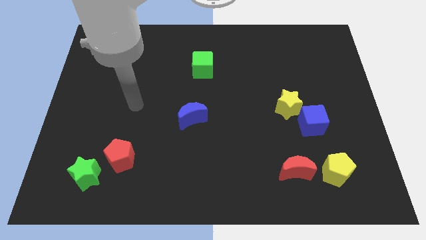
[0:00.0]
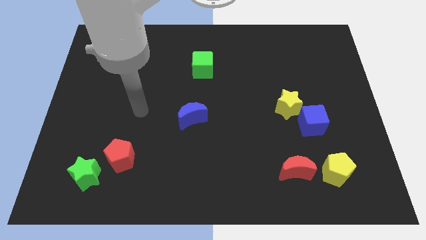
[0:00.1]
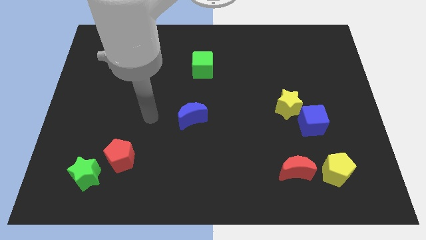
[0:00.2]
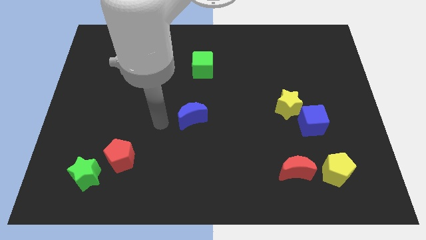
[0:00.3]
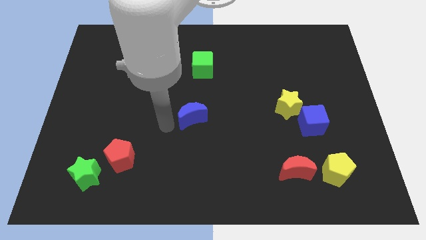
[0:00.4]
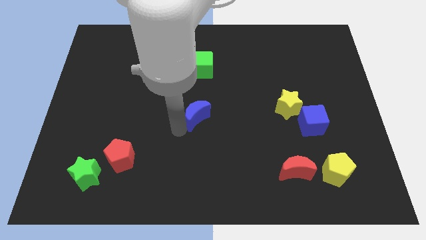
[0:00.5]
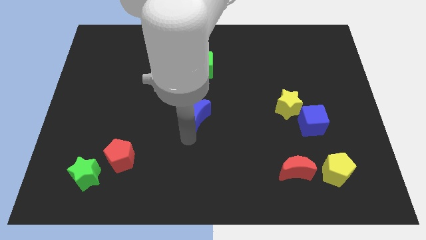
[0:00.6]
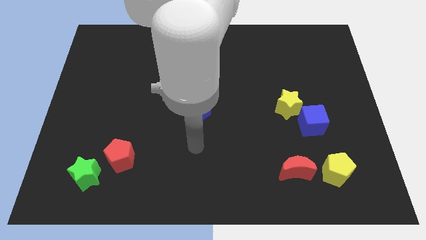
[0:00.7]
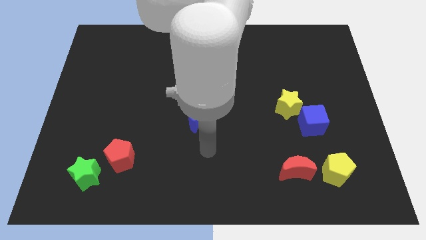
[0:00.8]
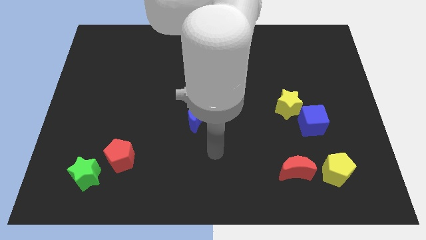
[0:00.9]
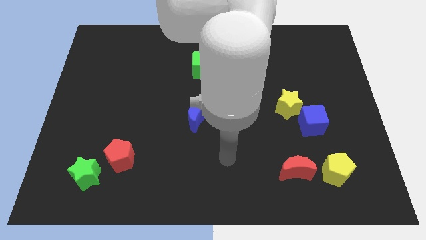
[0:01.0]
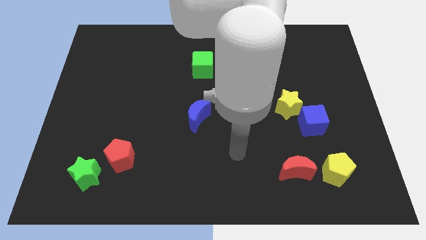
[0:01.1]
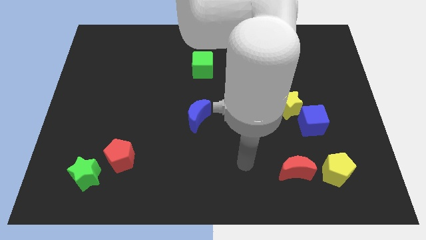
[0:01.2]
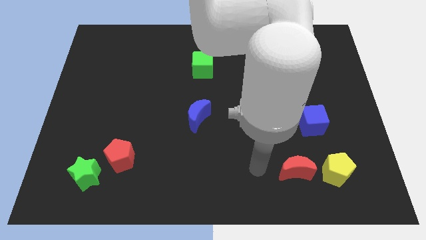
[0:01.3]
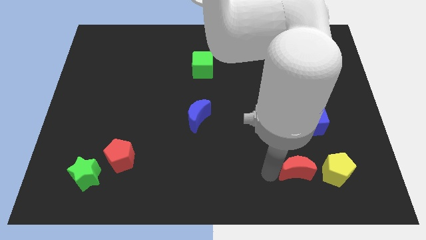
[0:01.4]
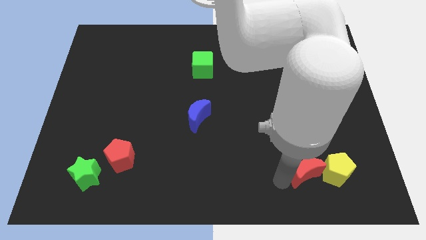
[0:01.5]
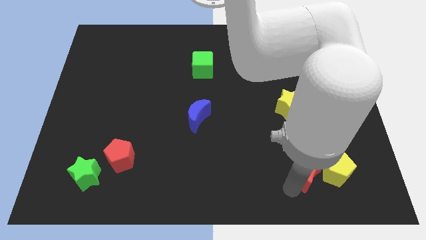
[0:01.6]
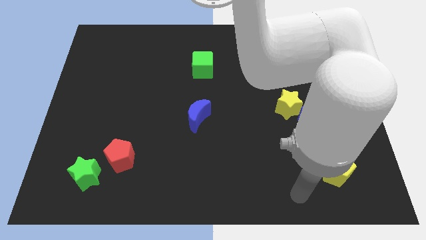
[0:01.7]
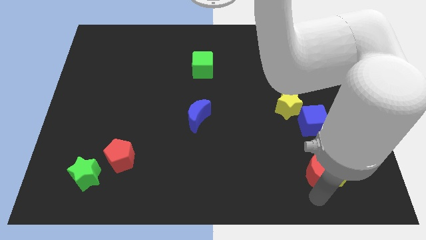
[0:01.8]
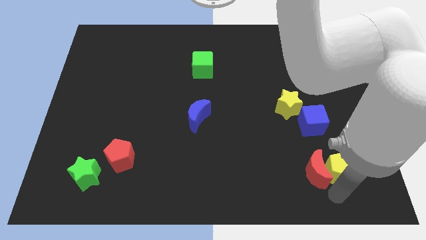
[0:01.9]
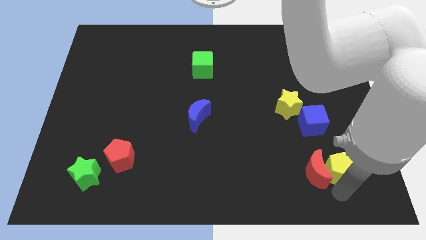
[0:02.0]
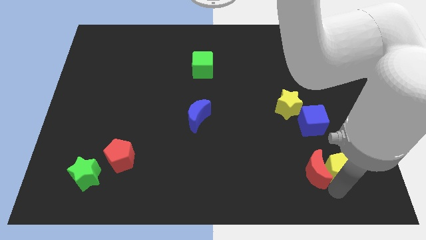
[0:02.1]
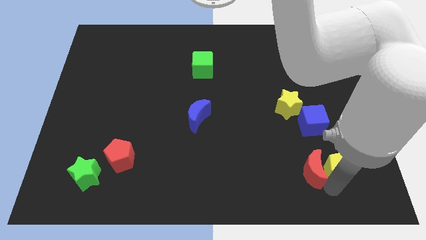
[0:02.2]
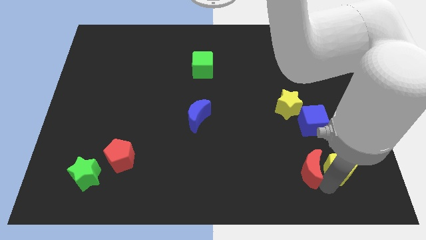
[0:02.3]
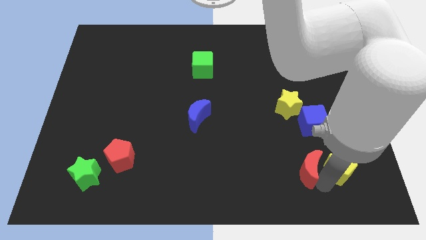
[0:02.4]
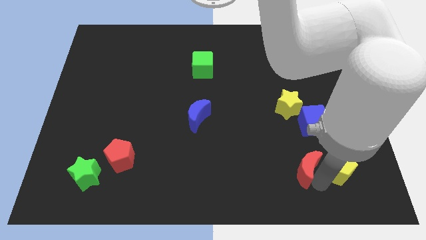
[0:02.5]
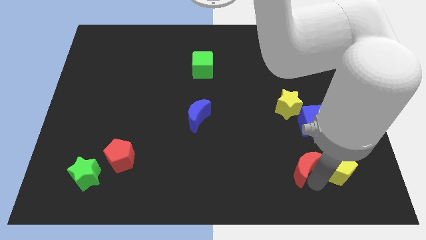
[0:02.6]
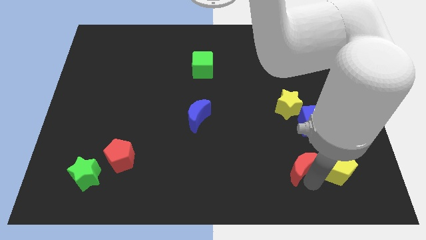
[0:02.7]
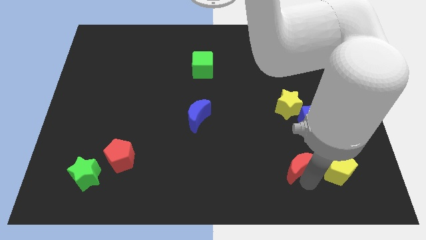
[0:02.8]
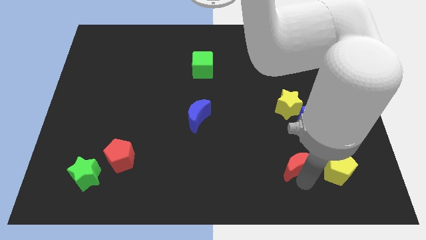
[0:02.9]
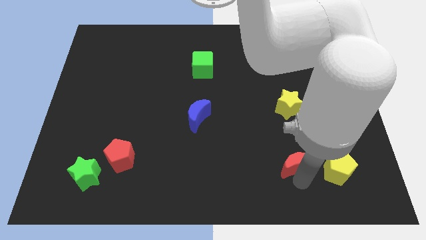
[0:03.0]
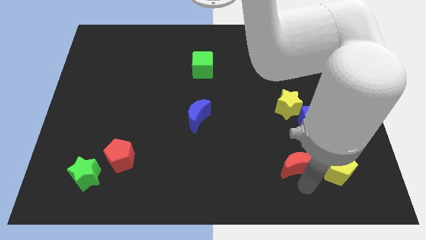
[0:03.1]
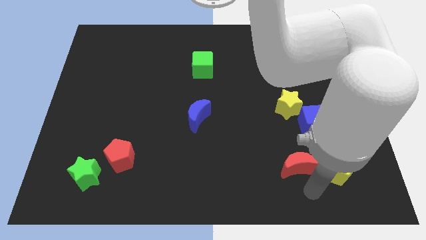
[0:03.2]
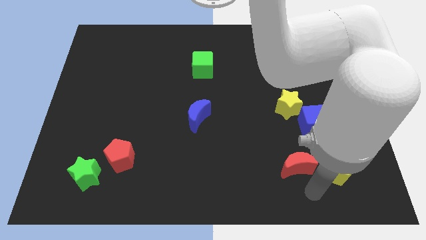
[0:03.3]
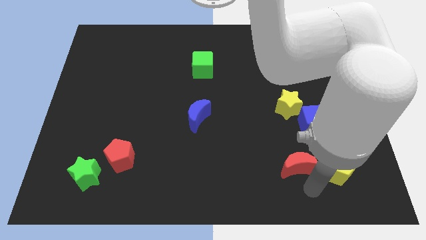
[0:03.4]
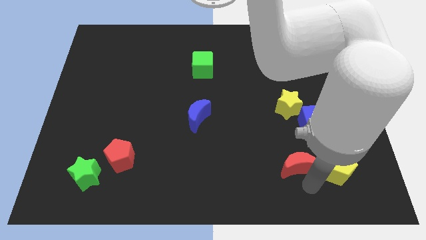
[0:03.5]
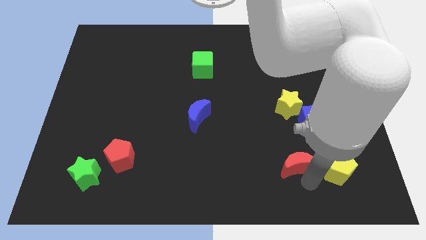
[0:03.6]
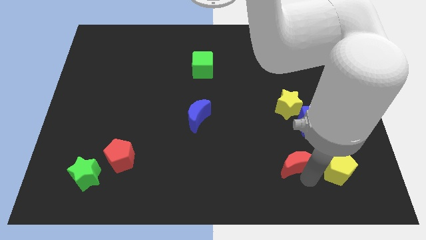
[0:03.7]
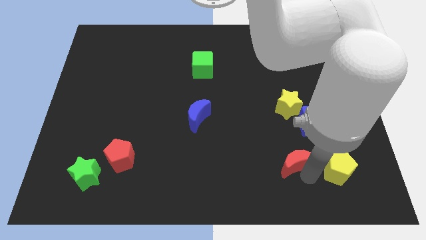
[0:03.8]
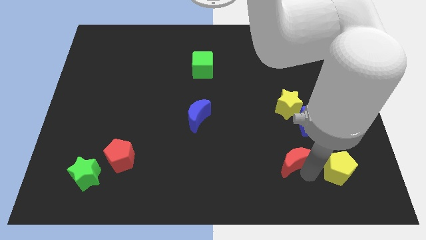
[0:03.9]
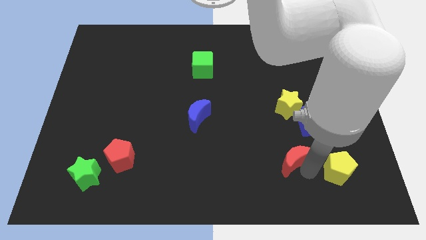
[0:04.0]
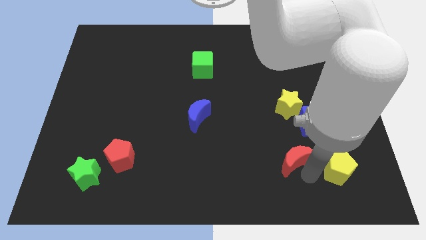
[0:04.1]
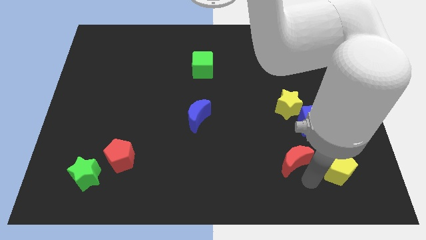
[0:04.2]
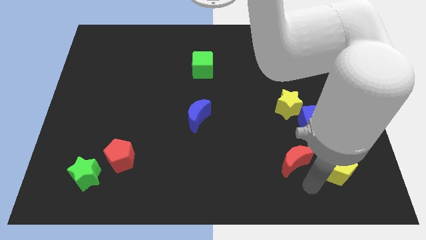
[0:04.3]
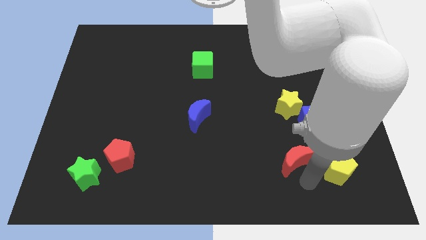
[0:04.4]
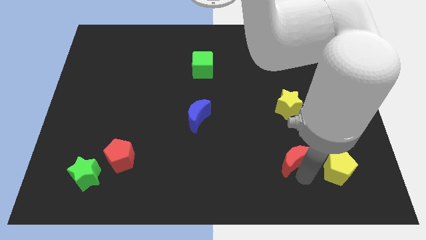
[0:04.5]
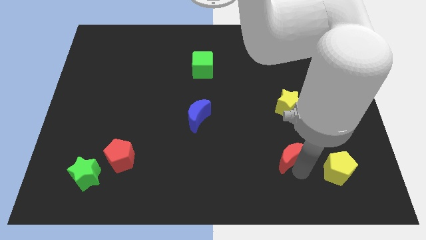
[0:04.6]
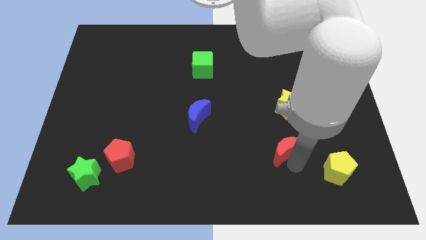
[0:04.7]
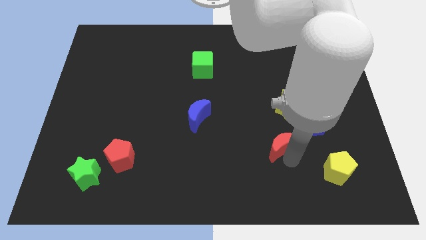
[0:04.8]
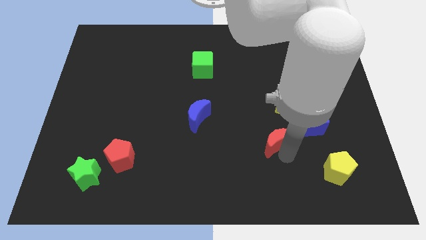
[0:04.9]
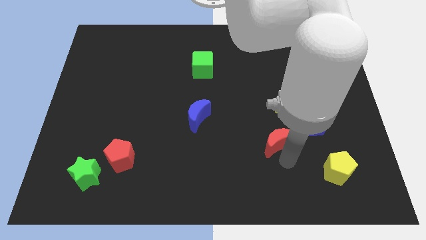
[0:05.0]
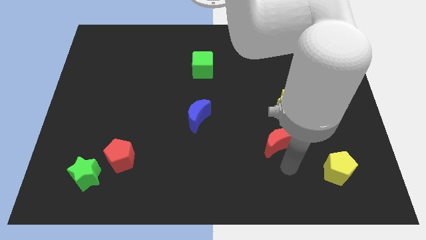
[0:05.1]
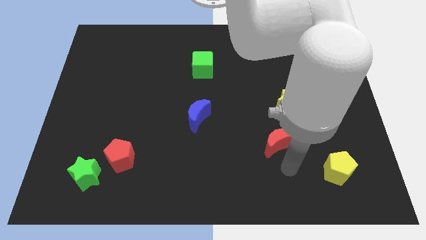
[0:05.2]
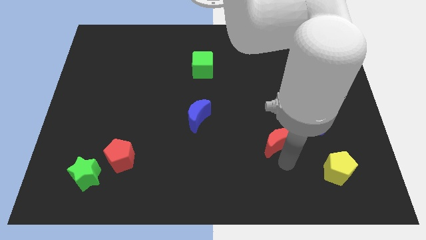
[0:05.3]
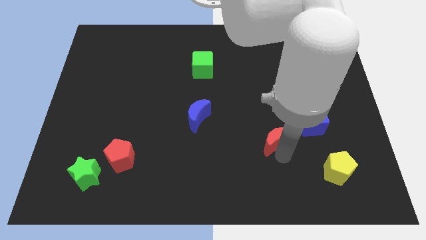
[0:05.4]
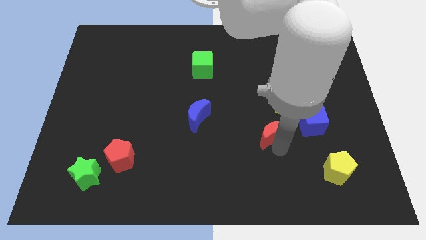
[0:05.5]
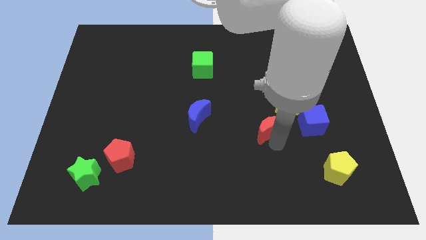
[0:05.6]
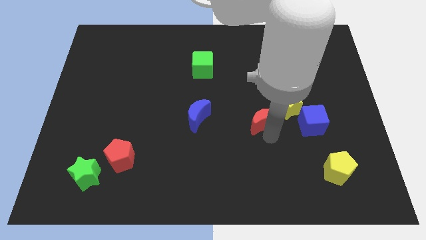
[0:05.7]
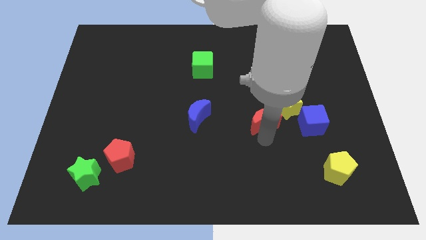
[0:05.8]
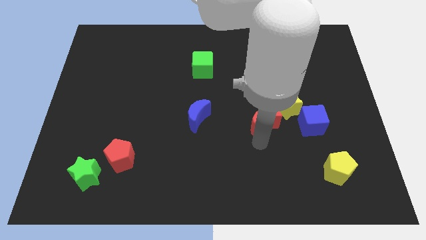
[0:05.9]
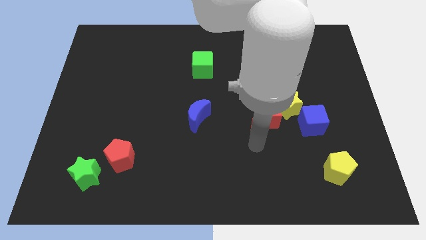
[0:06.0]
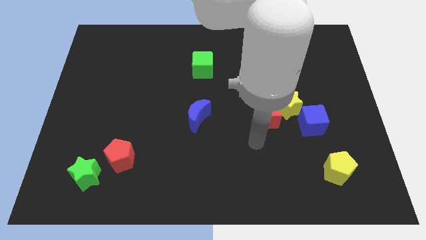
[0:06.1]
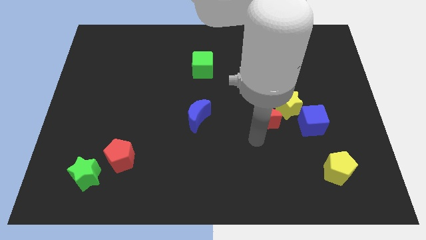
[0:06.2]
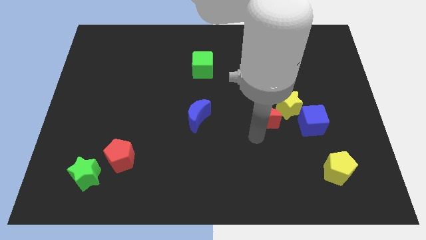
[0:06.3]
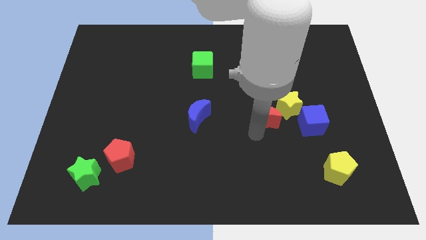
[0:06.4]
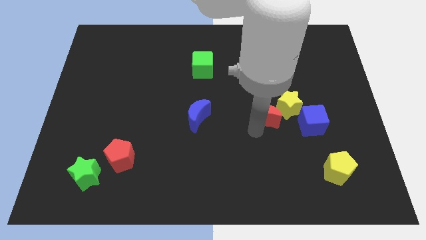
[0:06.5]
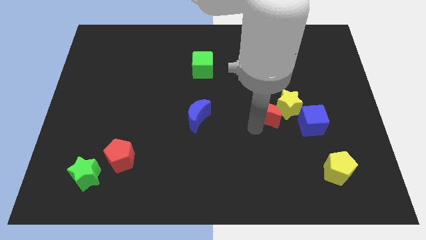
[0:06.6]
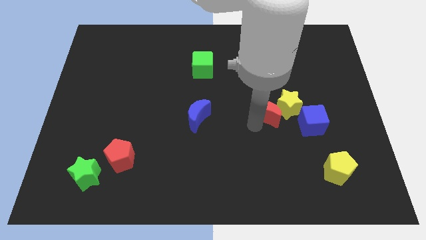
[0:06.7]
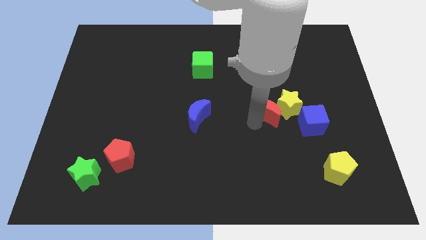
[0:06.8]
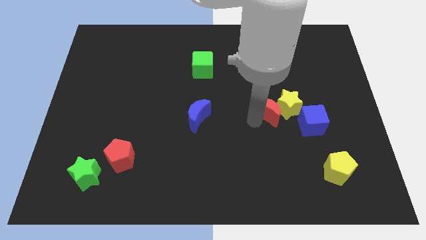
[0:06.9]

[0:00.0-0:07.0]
push the red moon to the top left of the blue cube
